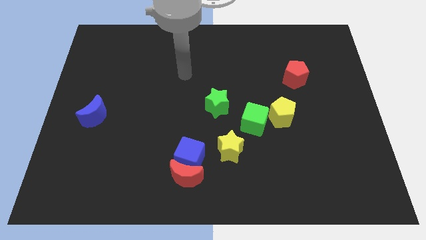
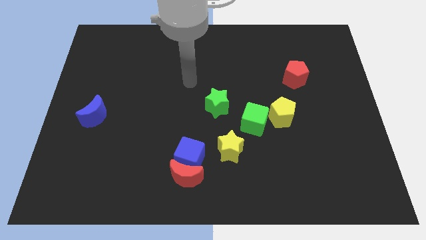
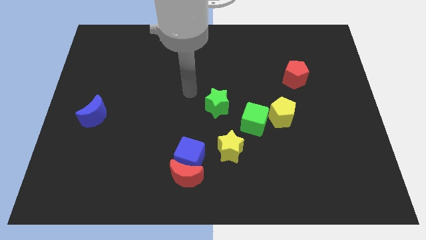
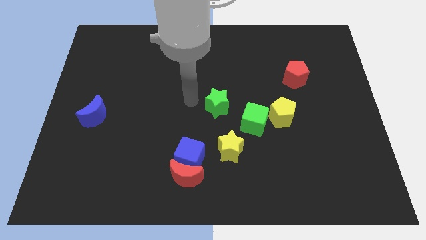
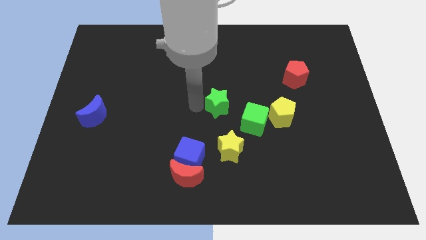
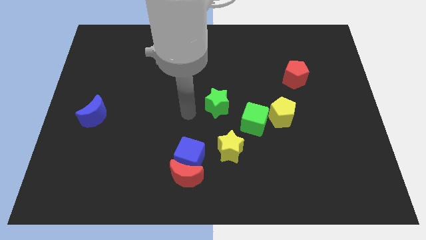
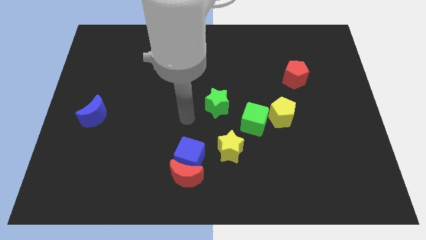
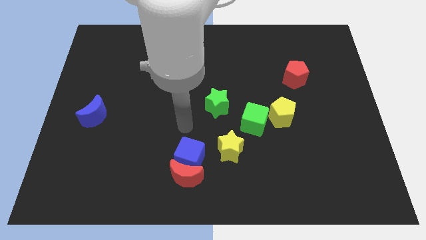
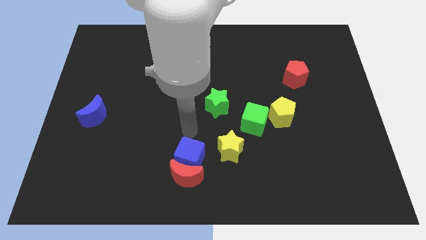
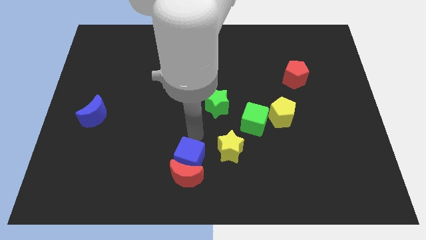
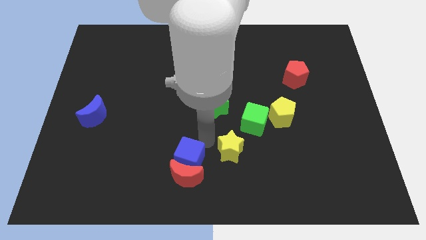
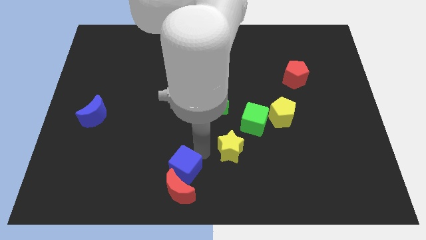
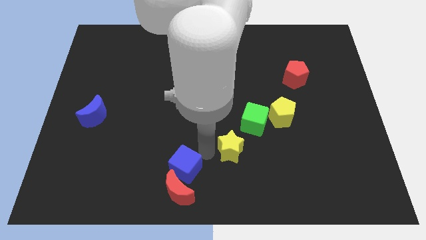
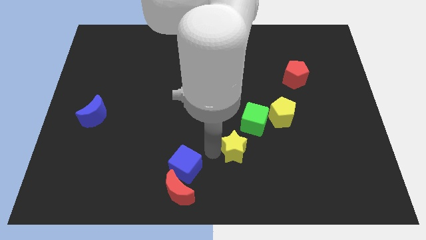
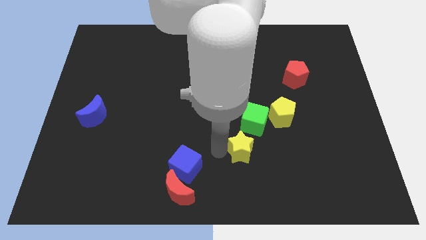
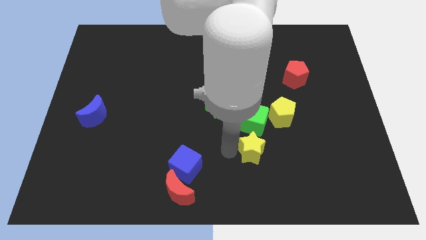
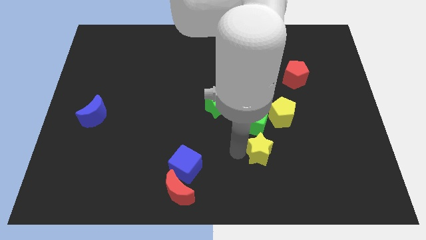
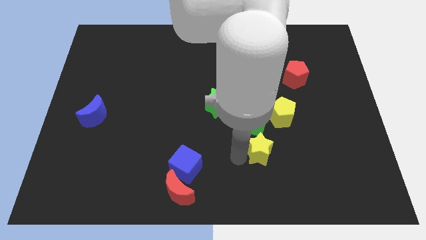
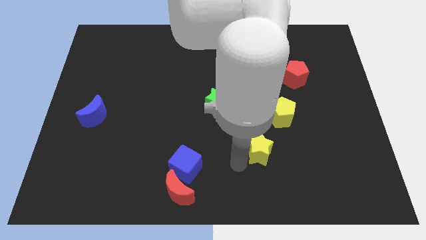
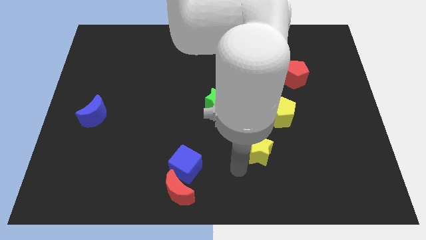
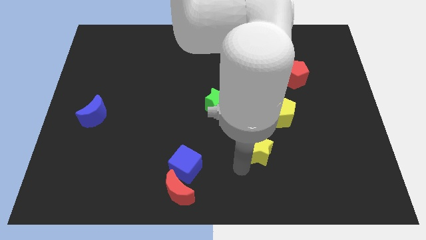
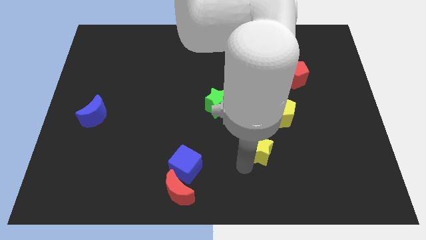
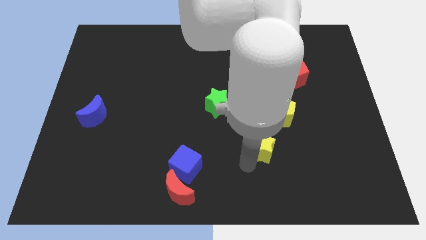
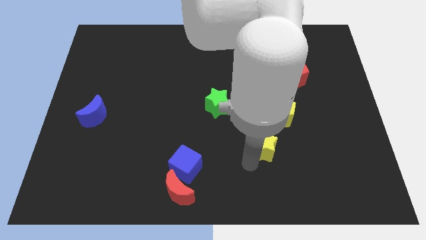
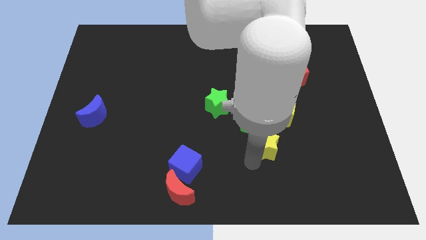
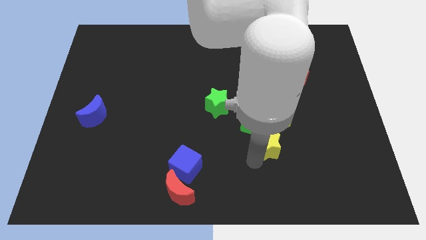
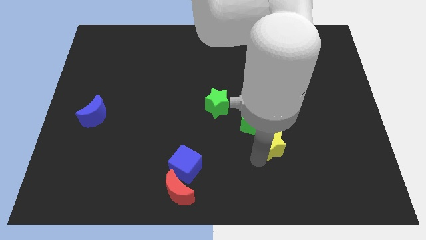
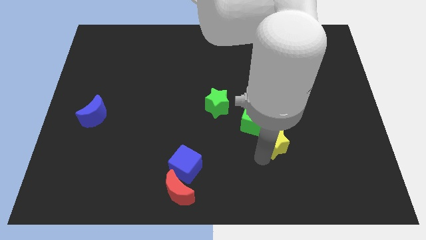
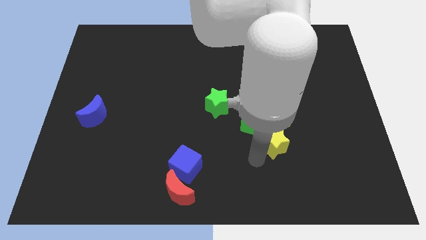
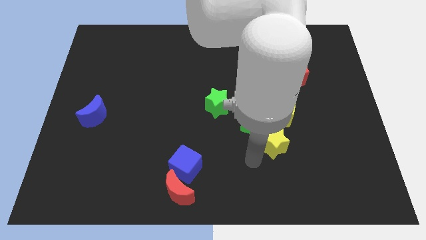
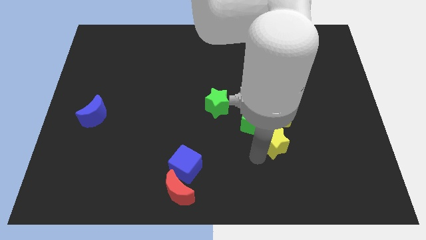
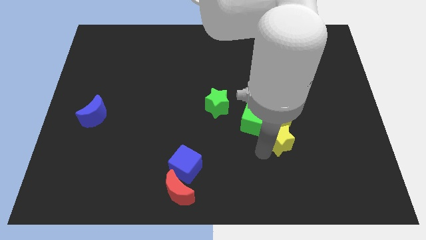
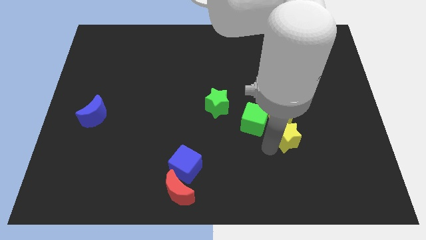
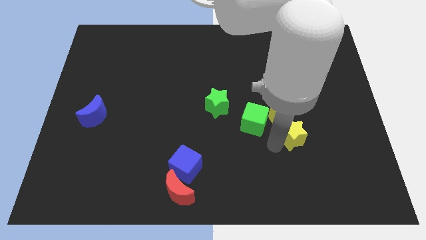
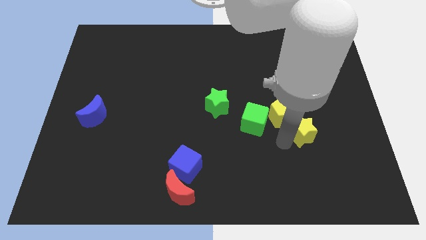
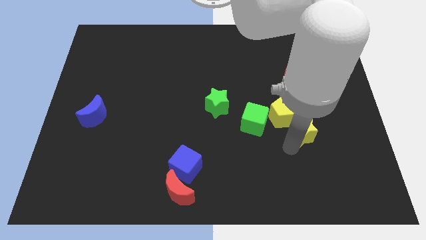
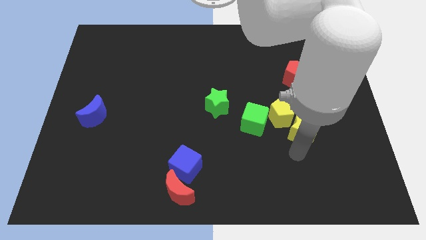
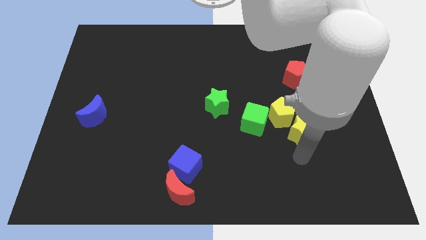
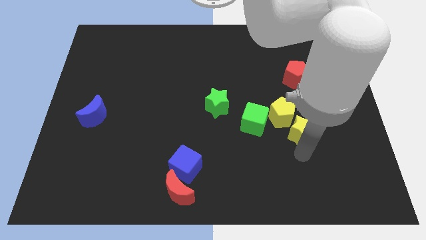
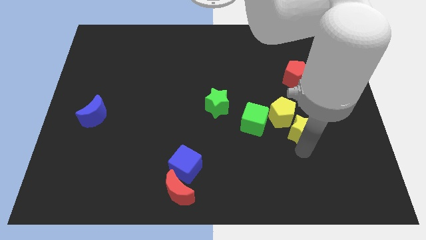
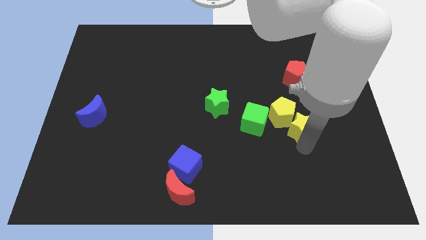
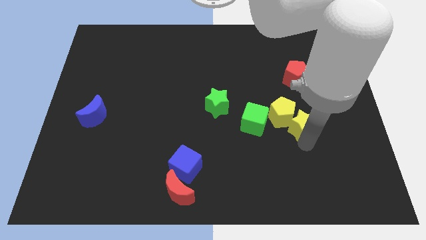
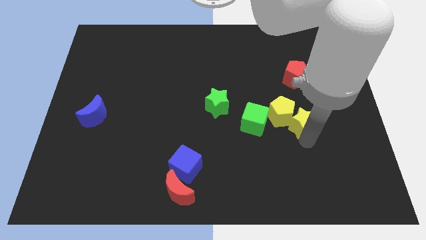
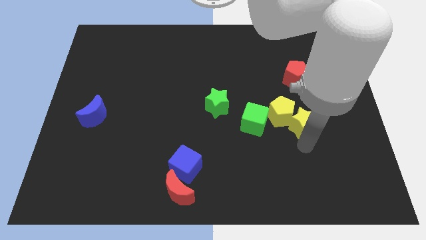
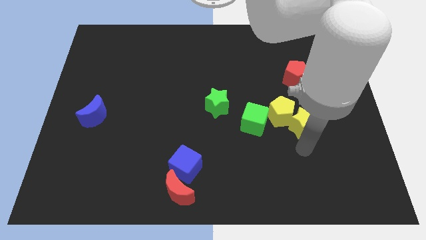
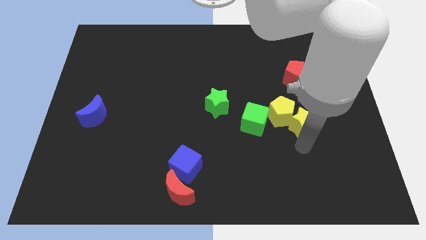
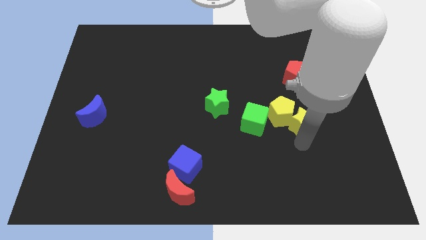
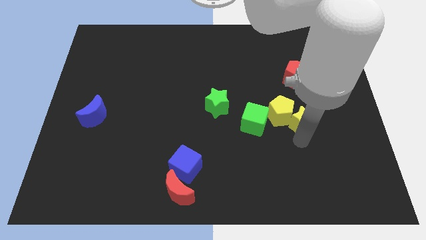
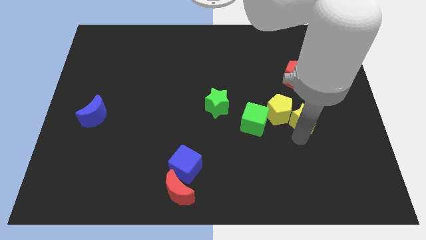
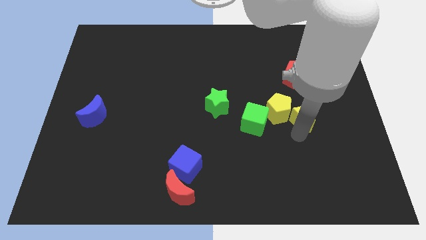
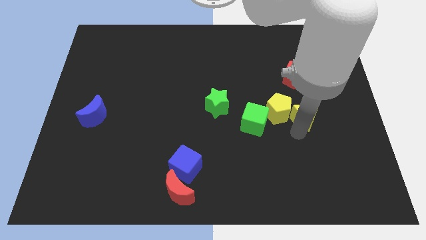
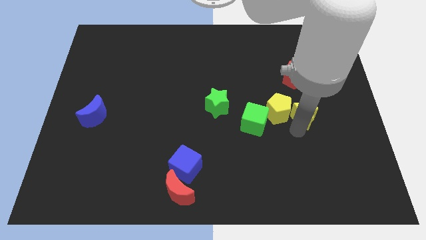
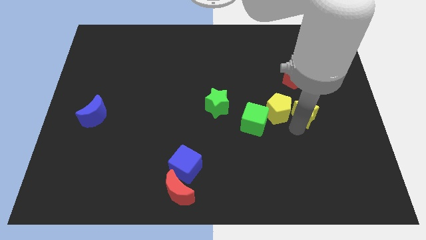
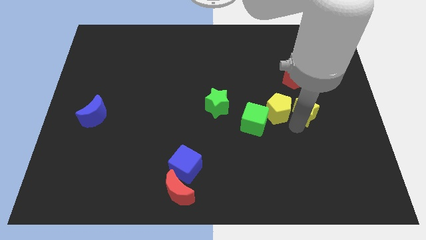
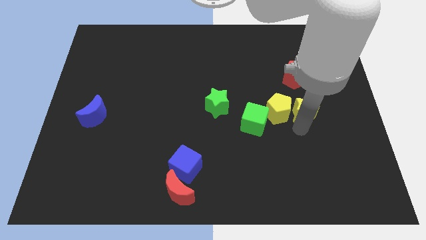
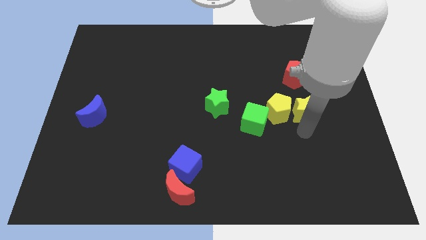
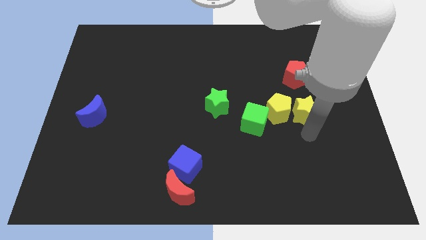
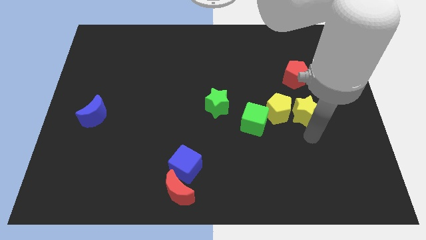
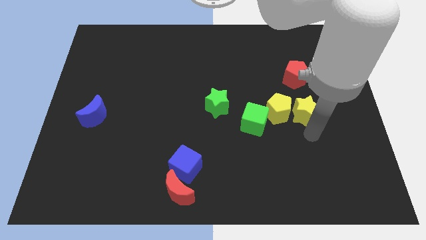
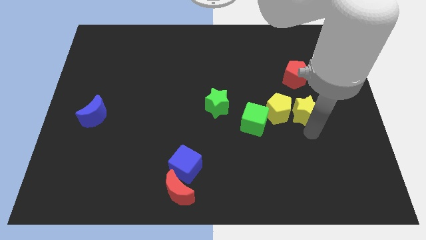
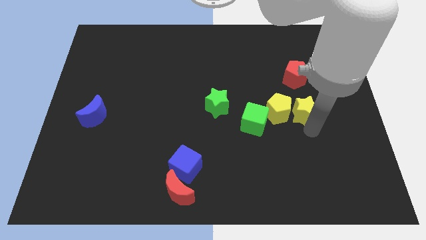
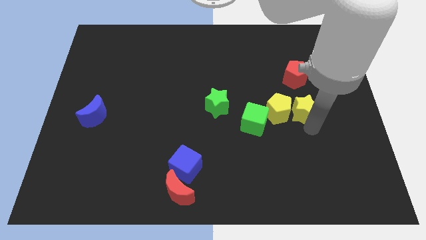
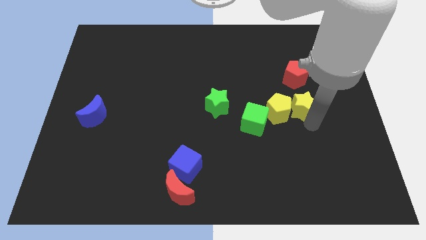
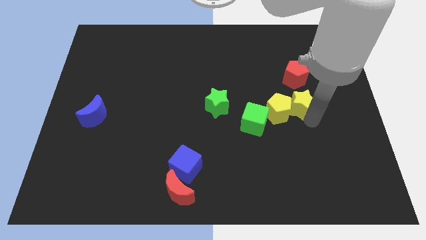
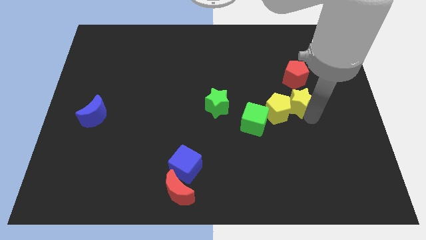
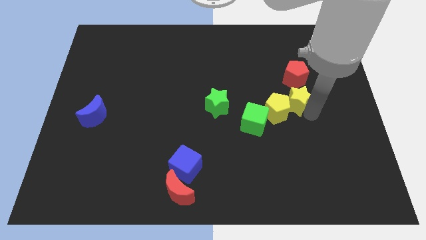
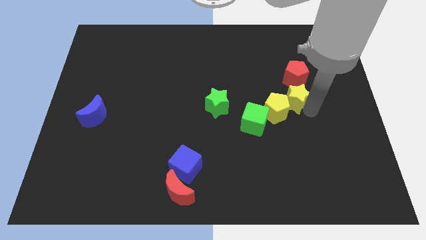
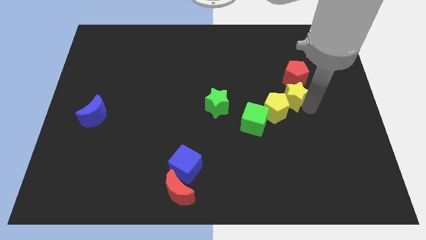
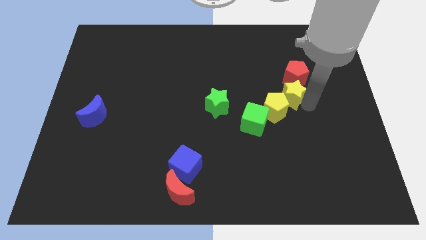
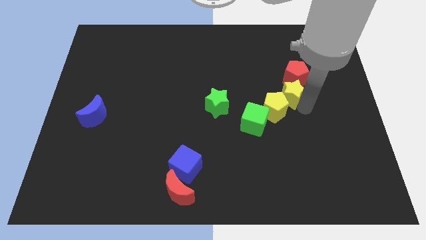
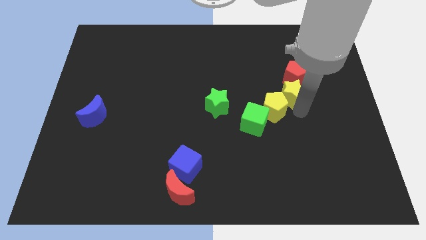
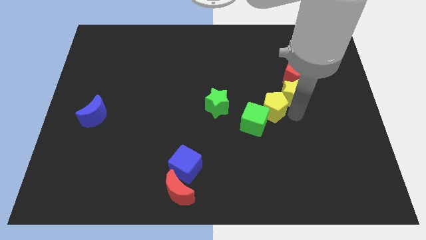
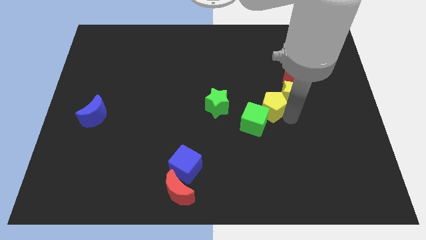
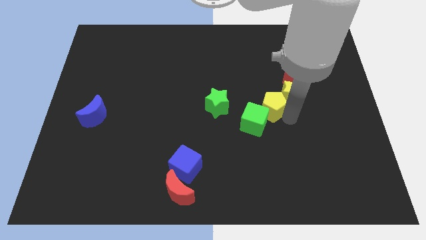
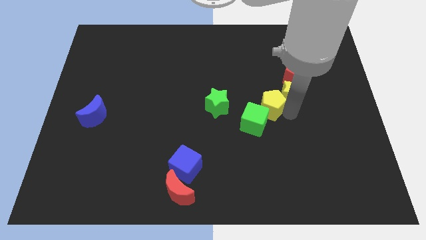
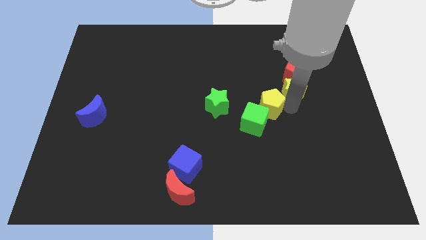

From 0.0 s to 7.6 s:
slide the yellow star towards the red pentagon
